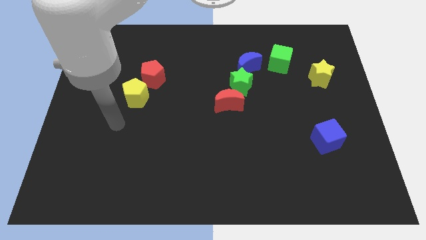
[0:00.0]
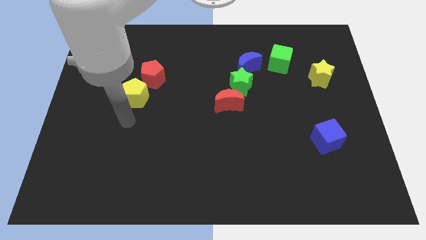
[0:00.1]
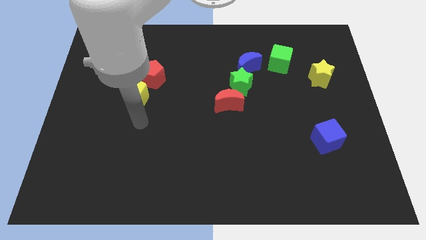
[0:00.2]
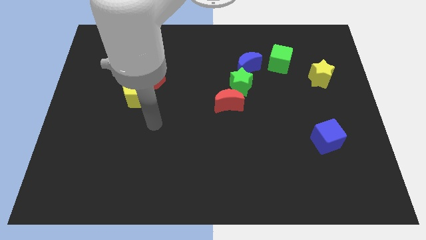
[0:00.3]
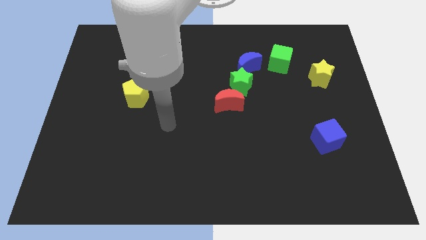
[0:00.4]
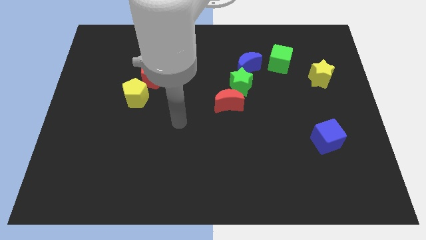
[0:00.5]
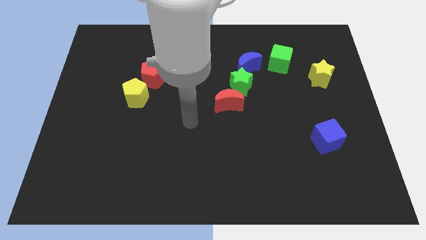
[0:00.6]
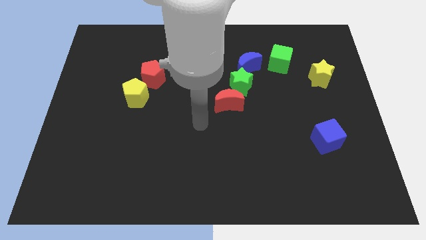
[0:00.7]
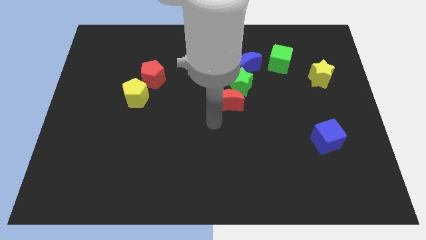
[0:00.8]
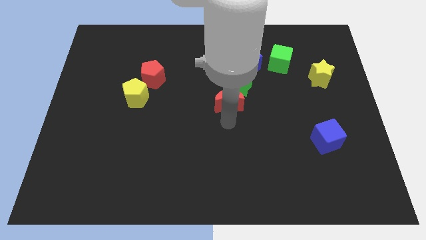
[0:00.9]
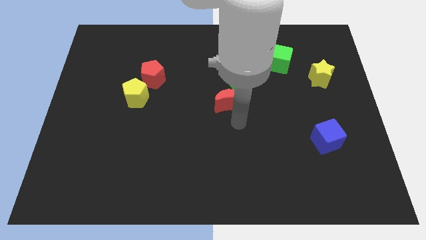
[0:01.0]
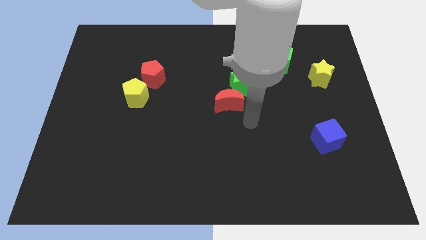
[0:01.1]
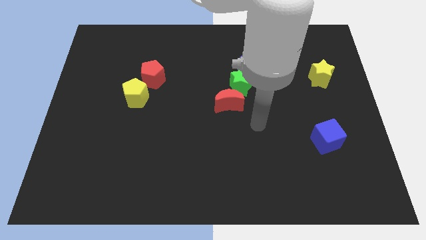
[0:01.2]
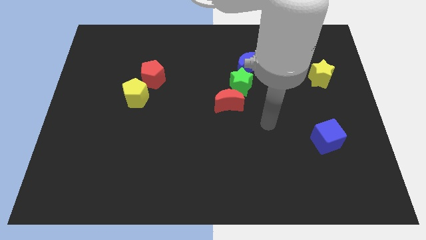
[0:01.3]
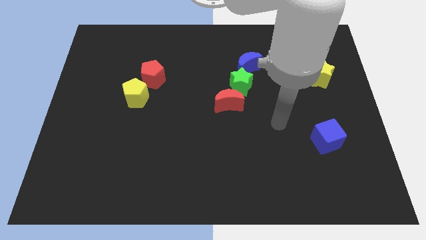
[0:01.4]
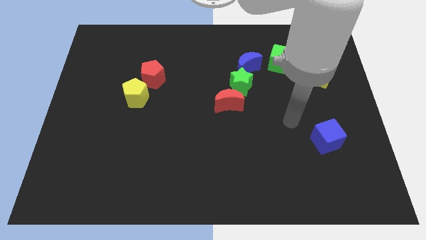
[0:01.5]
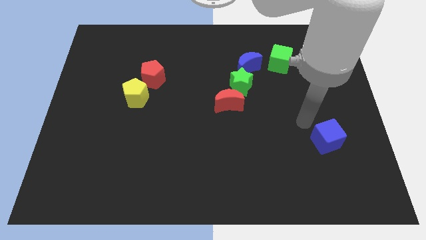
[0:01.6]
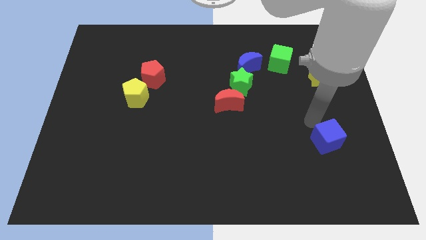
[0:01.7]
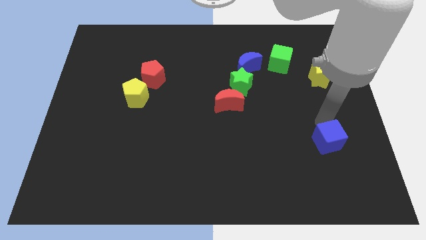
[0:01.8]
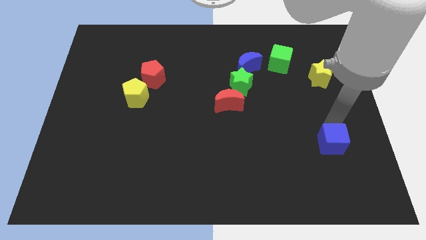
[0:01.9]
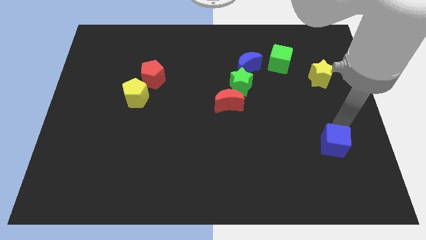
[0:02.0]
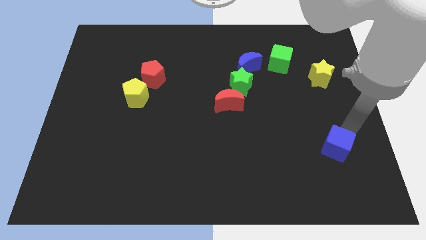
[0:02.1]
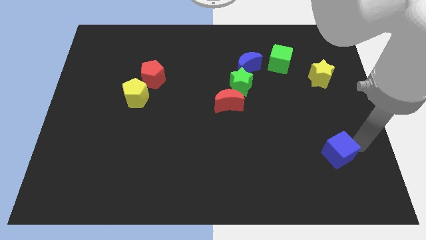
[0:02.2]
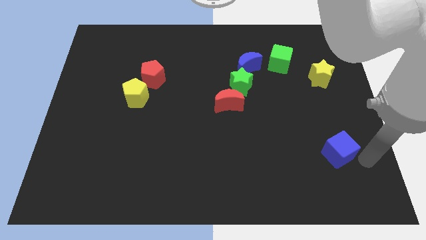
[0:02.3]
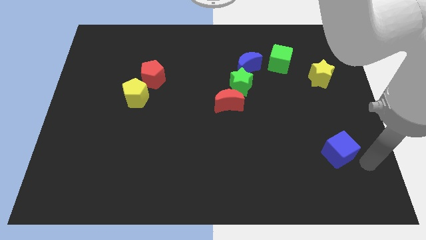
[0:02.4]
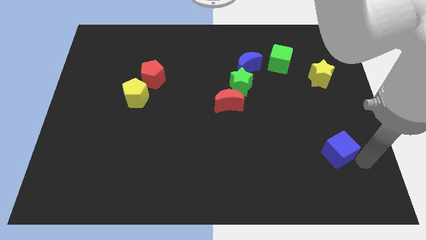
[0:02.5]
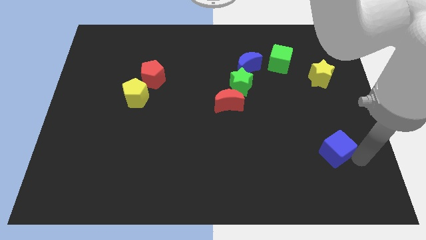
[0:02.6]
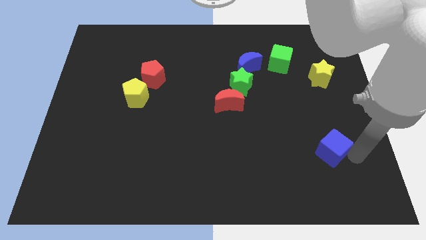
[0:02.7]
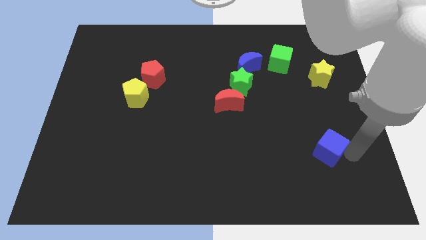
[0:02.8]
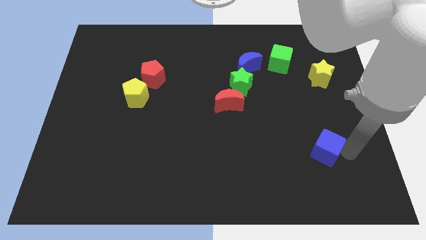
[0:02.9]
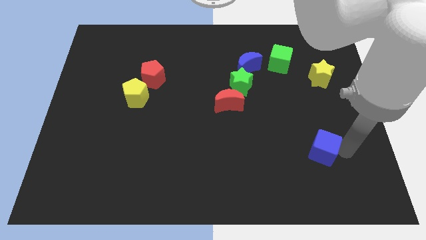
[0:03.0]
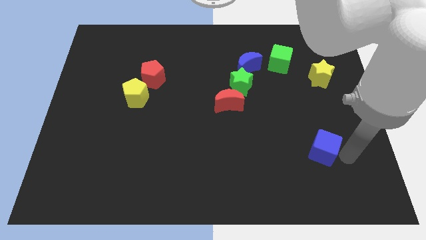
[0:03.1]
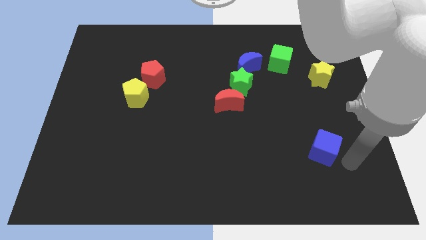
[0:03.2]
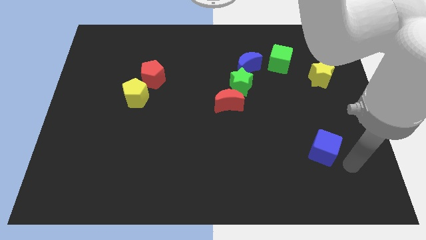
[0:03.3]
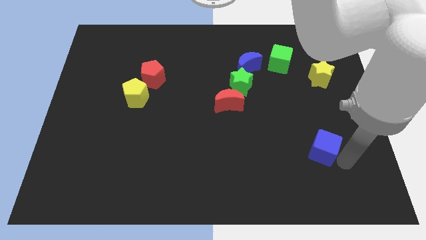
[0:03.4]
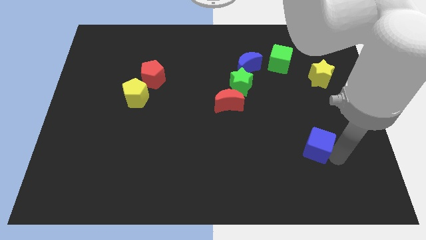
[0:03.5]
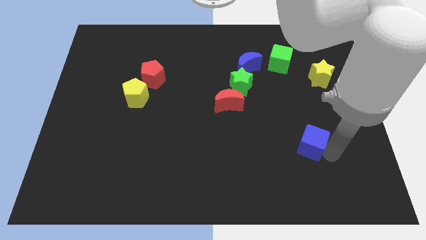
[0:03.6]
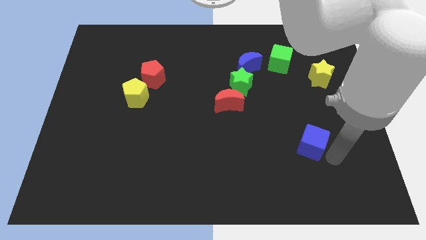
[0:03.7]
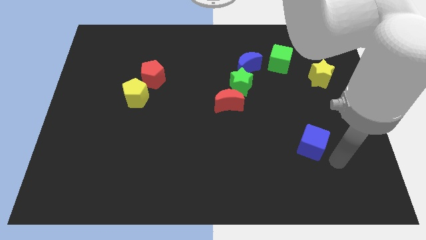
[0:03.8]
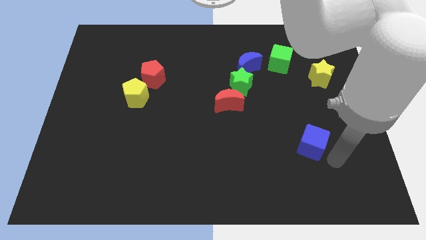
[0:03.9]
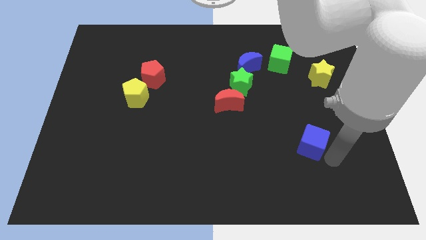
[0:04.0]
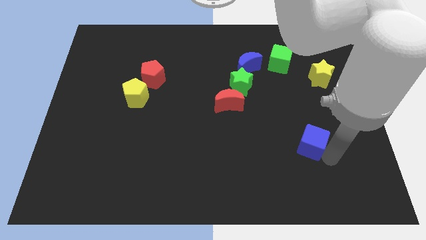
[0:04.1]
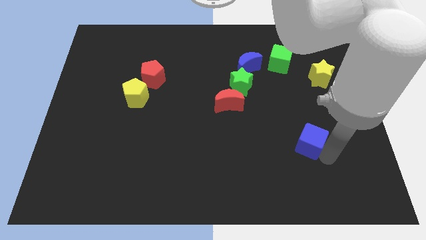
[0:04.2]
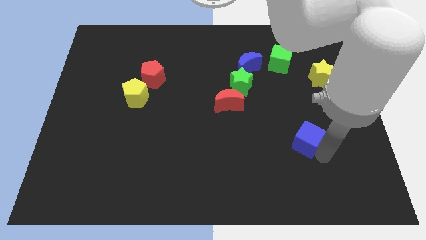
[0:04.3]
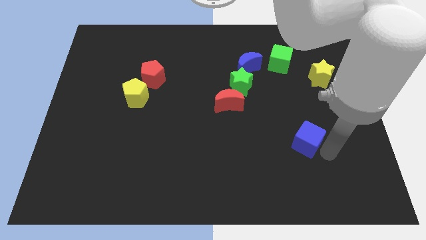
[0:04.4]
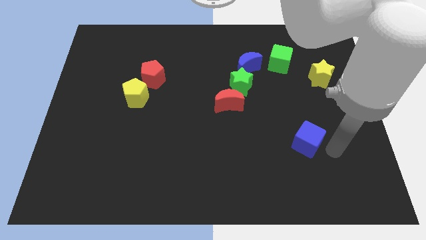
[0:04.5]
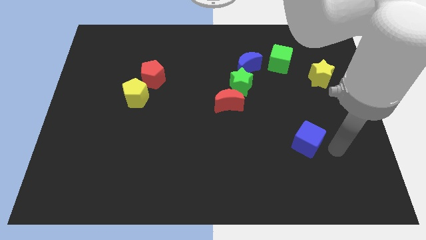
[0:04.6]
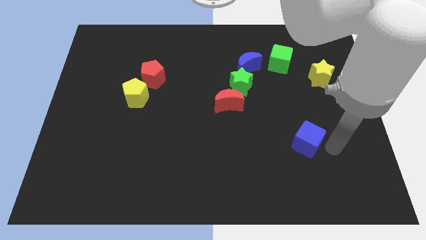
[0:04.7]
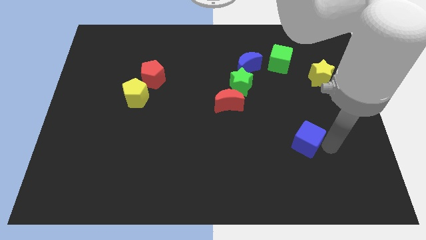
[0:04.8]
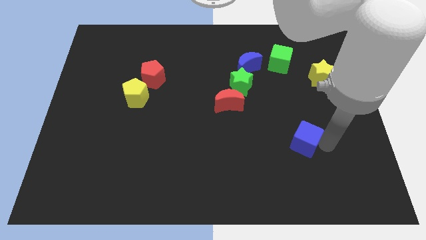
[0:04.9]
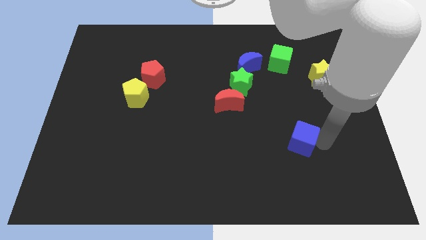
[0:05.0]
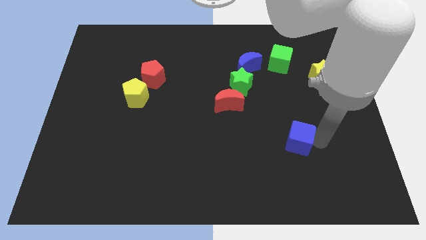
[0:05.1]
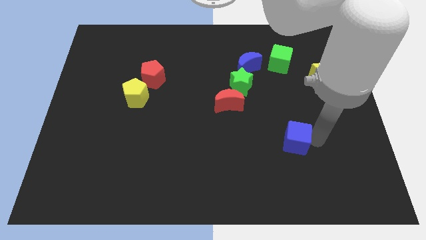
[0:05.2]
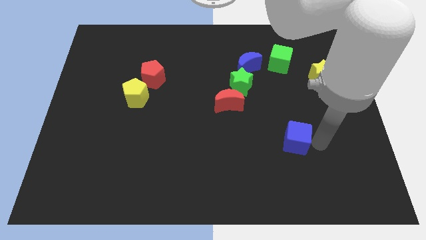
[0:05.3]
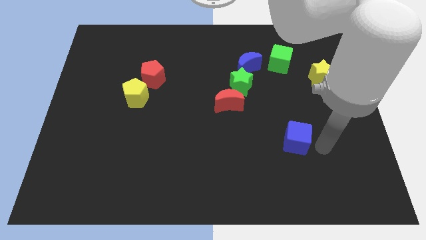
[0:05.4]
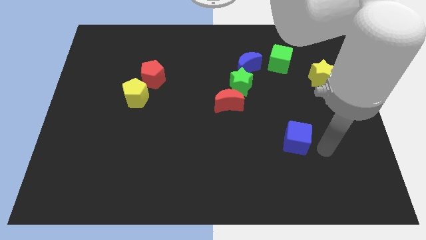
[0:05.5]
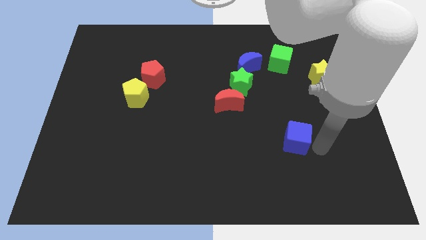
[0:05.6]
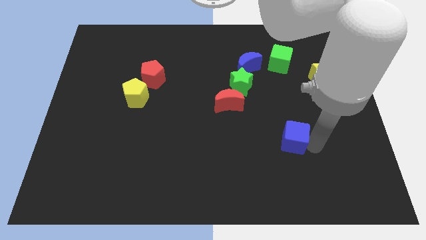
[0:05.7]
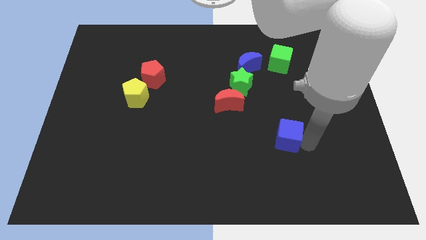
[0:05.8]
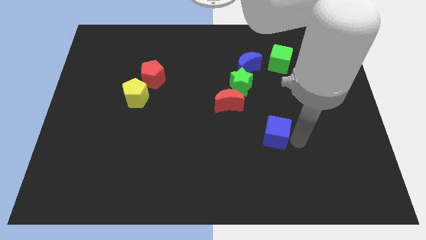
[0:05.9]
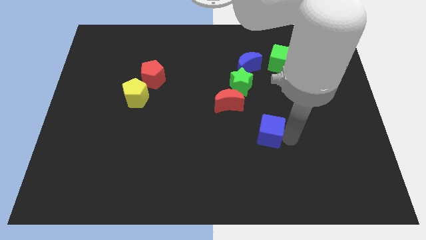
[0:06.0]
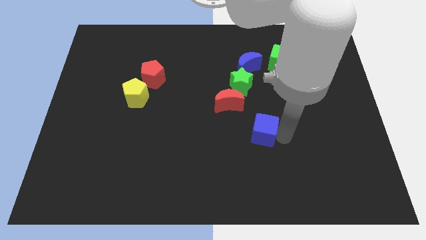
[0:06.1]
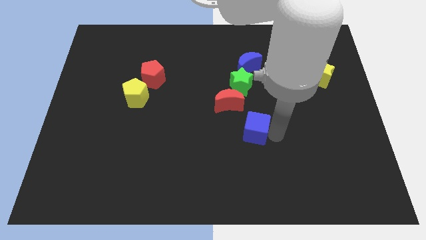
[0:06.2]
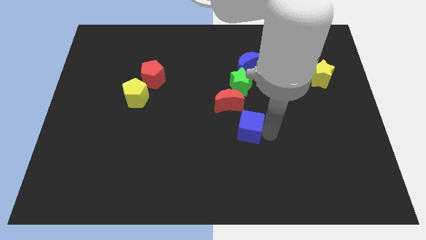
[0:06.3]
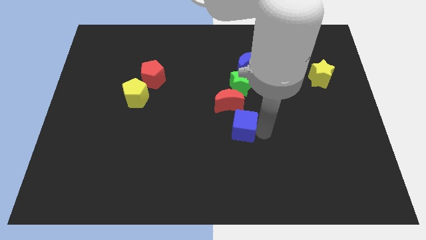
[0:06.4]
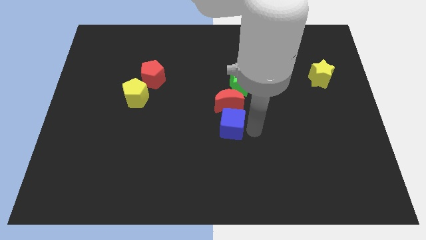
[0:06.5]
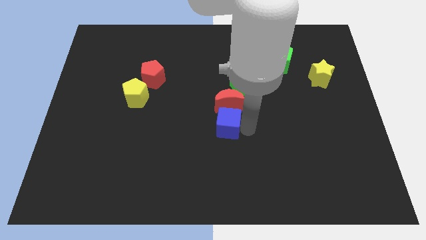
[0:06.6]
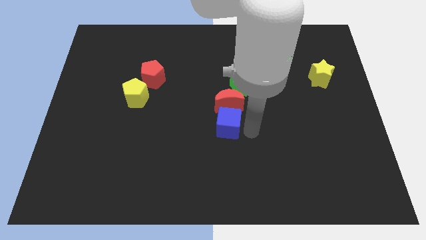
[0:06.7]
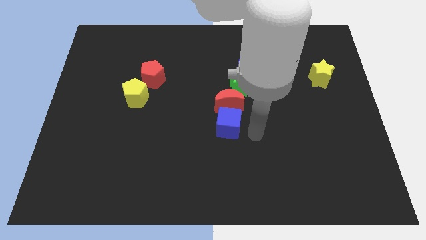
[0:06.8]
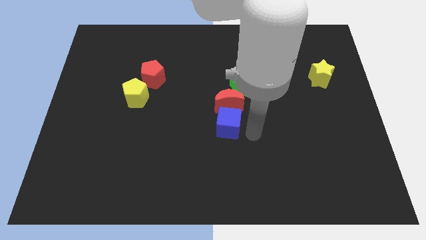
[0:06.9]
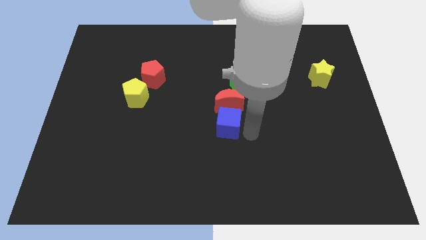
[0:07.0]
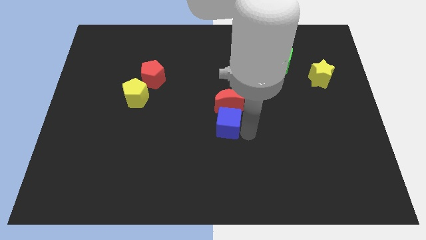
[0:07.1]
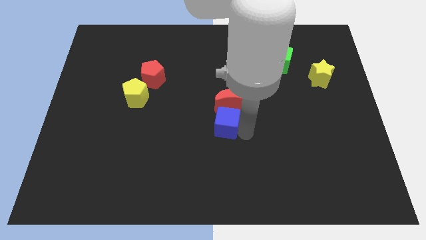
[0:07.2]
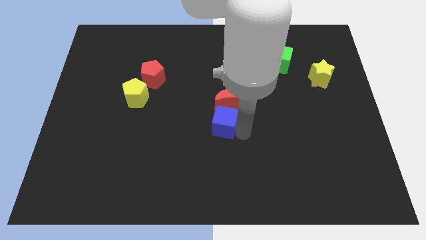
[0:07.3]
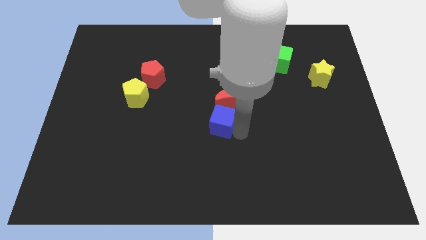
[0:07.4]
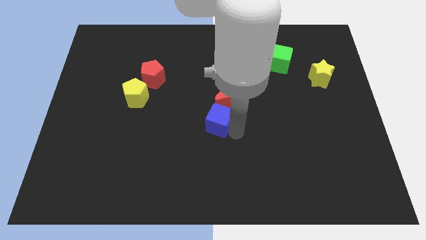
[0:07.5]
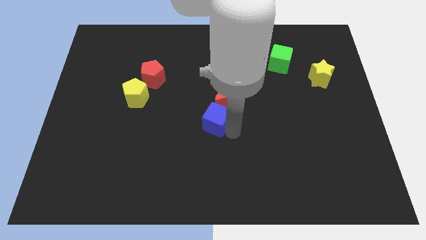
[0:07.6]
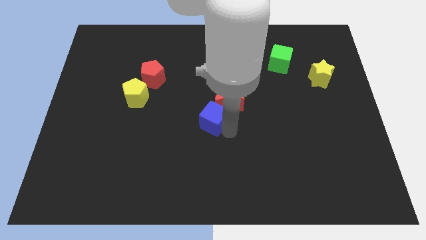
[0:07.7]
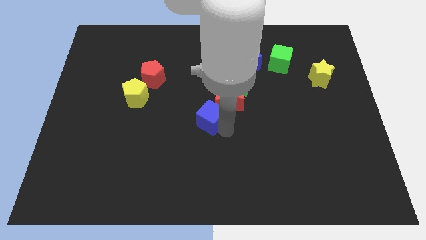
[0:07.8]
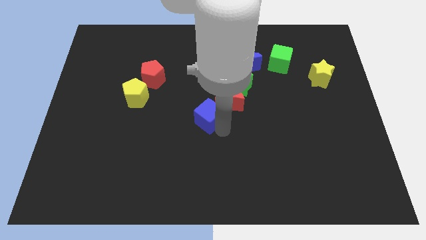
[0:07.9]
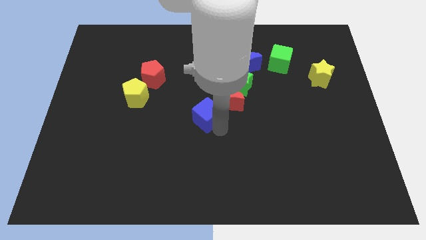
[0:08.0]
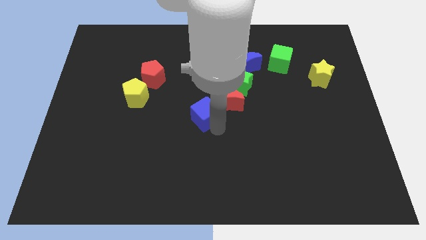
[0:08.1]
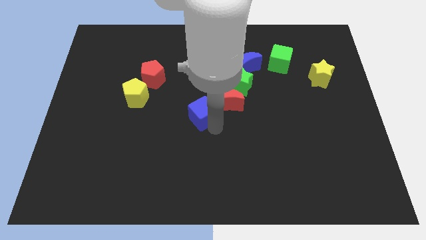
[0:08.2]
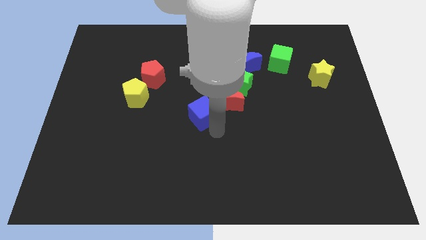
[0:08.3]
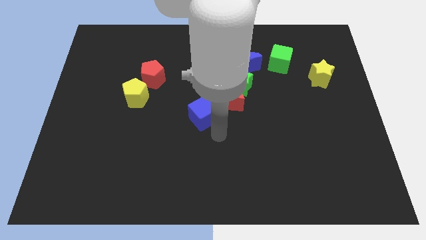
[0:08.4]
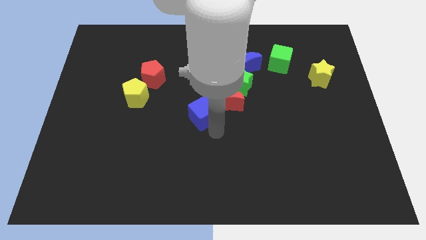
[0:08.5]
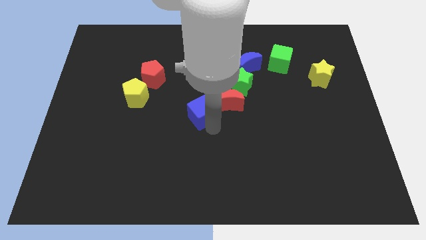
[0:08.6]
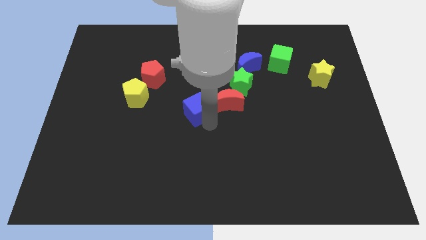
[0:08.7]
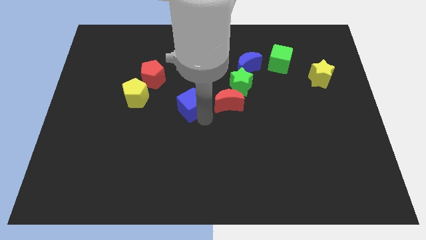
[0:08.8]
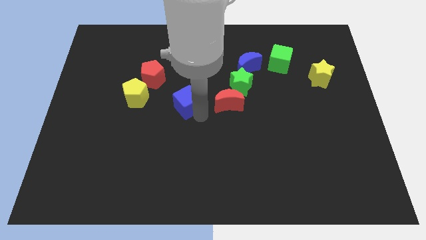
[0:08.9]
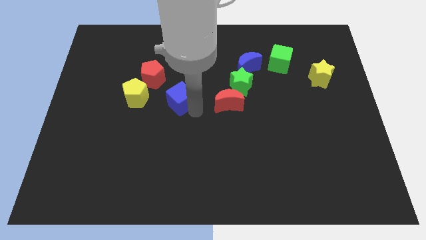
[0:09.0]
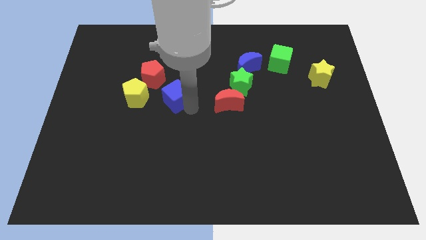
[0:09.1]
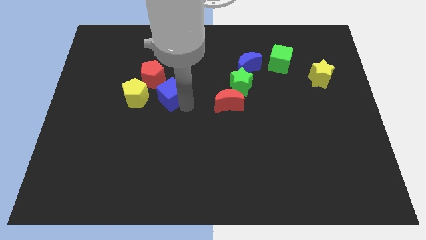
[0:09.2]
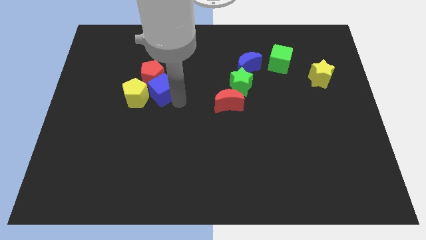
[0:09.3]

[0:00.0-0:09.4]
put the blue cube next to the red pentagon
